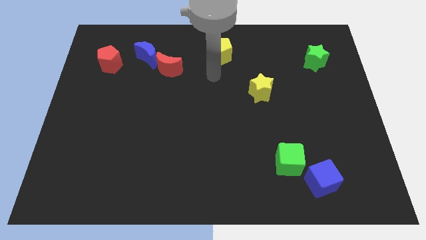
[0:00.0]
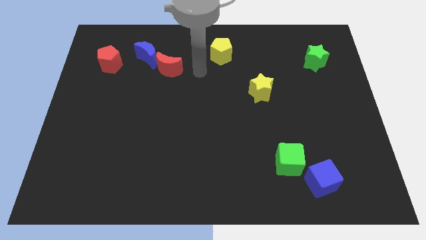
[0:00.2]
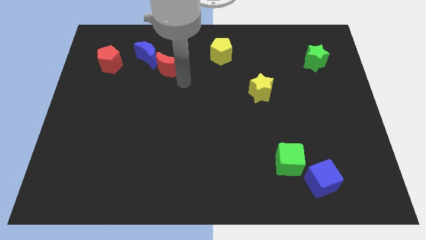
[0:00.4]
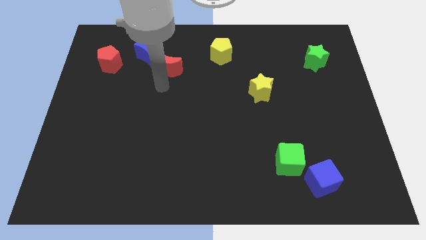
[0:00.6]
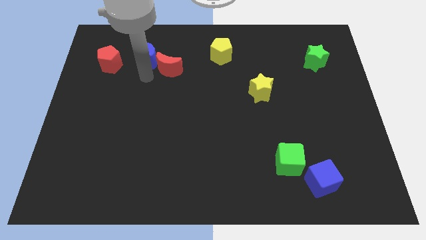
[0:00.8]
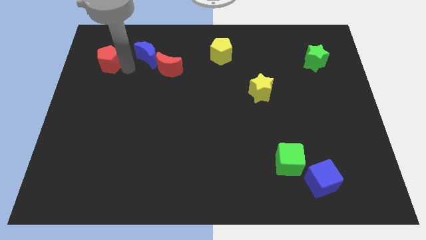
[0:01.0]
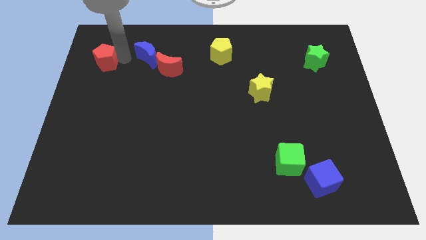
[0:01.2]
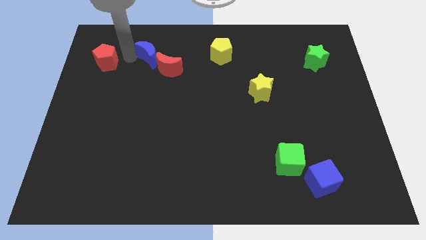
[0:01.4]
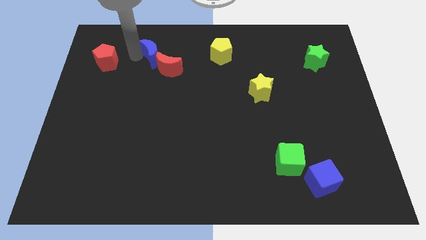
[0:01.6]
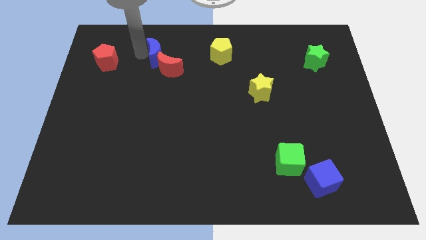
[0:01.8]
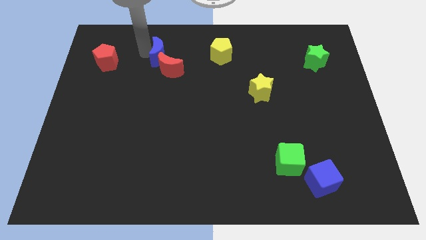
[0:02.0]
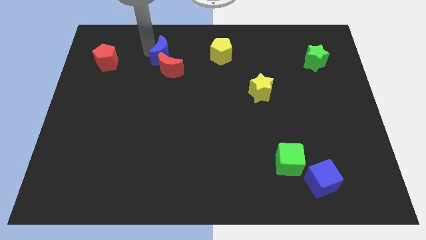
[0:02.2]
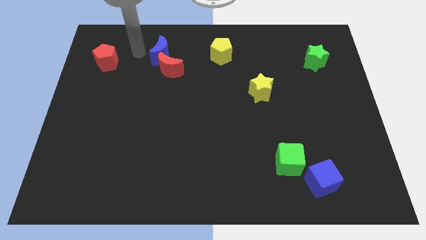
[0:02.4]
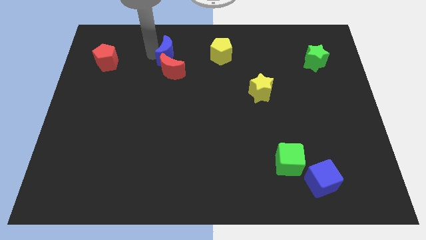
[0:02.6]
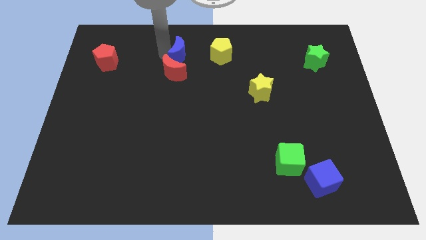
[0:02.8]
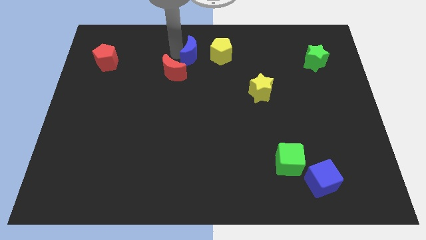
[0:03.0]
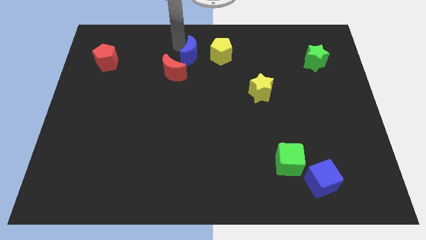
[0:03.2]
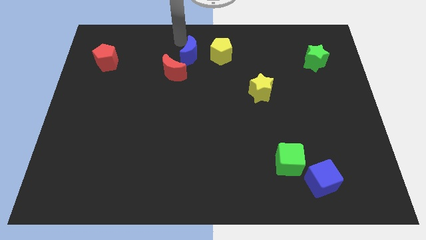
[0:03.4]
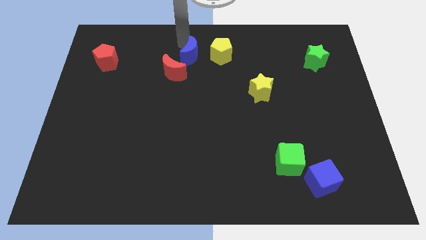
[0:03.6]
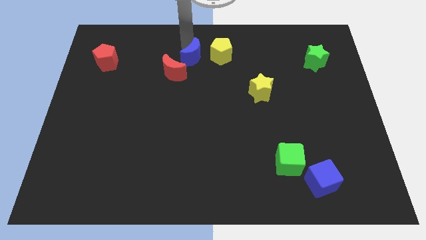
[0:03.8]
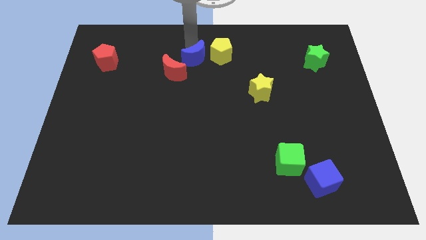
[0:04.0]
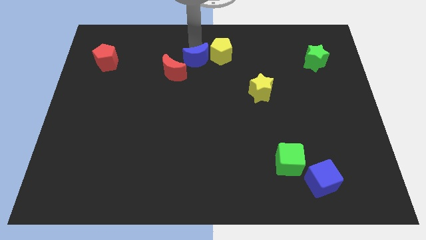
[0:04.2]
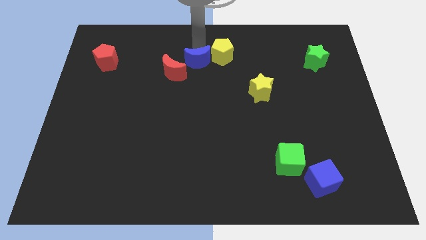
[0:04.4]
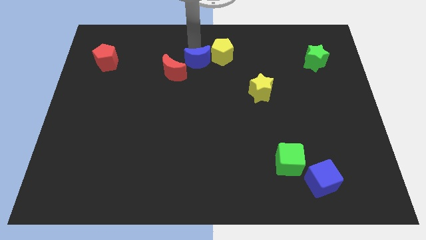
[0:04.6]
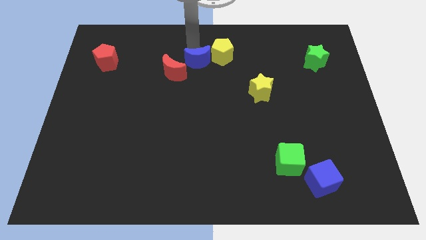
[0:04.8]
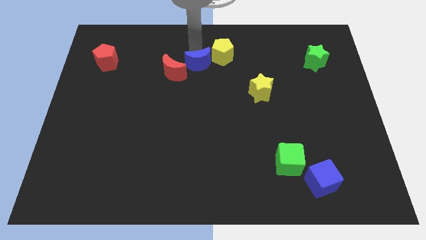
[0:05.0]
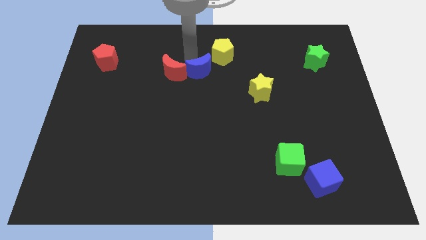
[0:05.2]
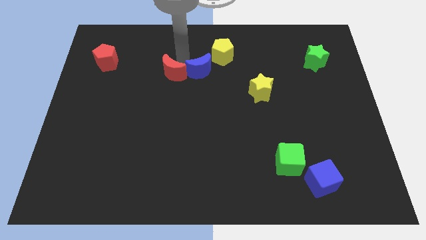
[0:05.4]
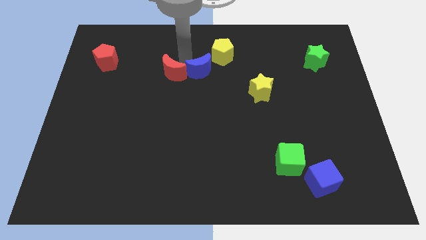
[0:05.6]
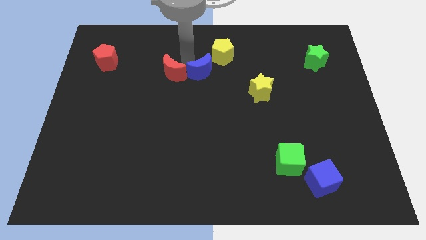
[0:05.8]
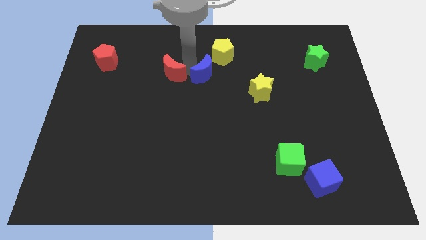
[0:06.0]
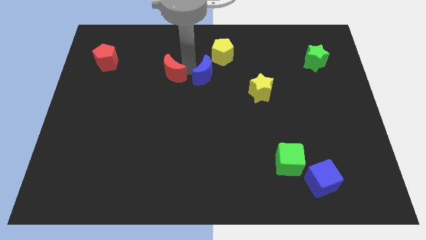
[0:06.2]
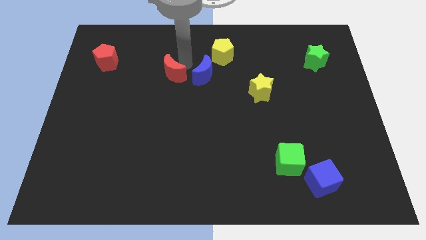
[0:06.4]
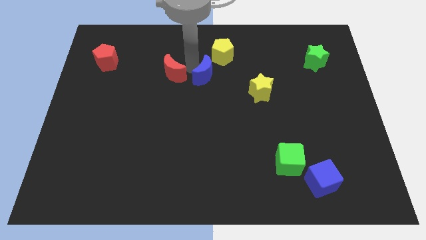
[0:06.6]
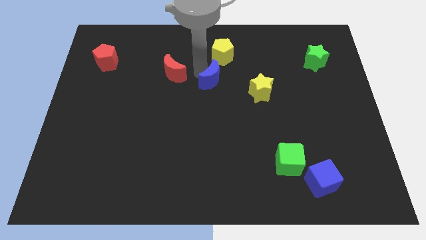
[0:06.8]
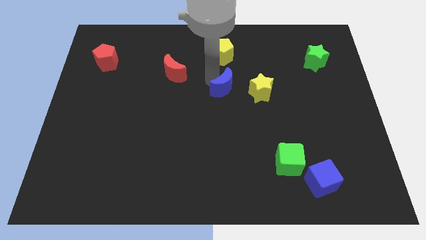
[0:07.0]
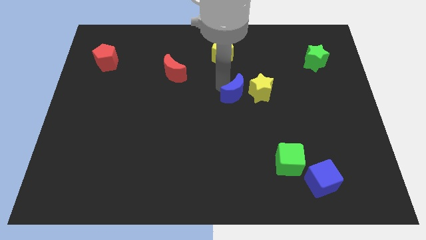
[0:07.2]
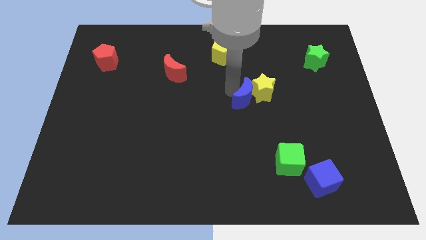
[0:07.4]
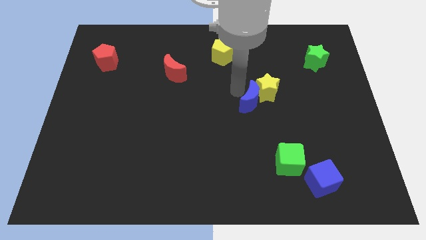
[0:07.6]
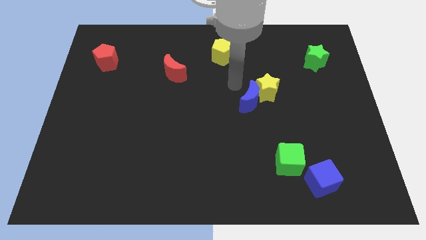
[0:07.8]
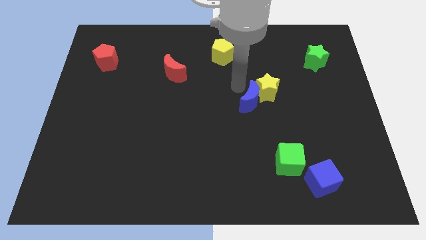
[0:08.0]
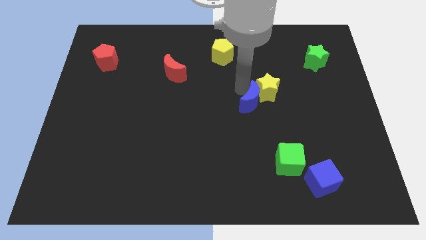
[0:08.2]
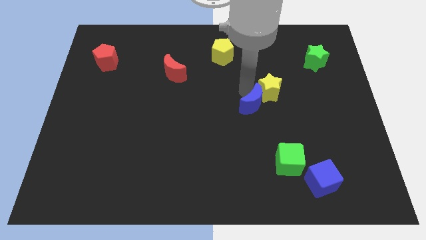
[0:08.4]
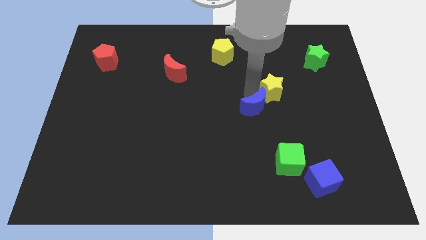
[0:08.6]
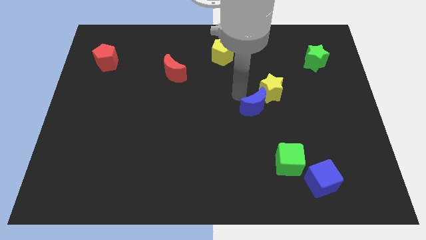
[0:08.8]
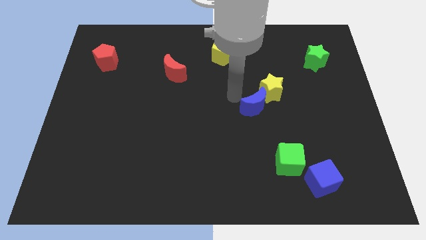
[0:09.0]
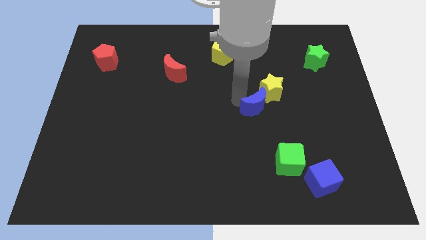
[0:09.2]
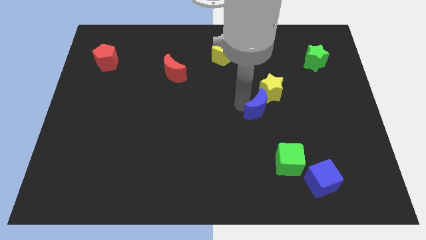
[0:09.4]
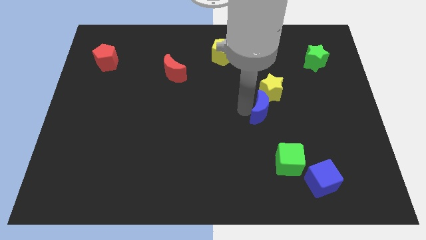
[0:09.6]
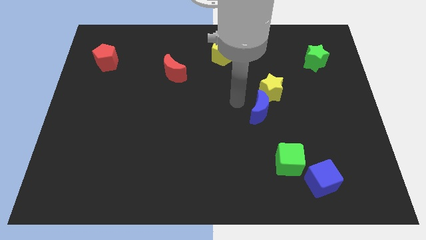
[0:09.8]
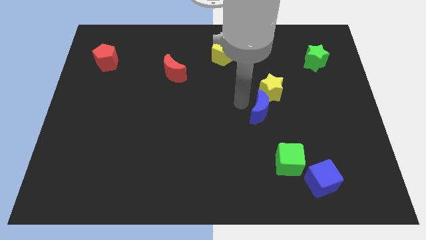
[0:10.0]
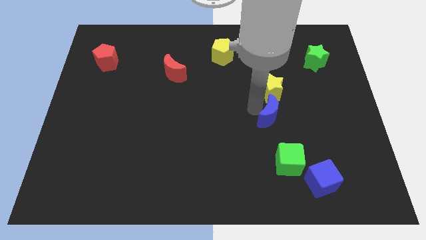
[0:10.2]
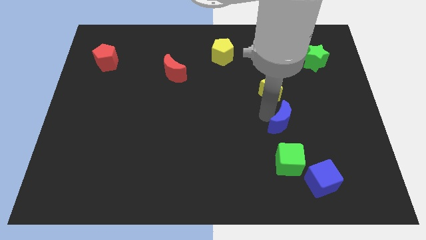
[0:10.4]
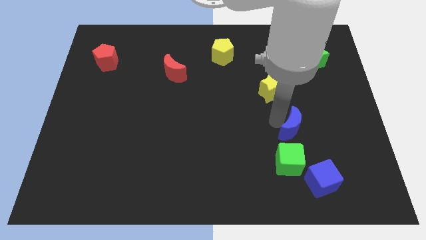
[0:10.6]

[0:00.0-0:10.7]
push the blue moon above the blue cube

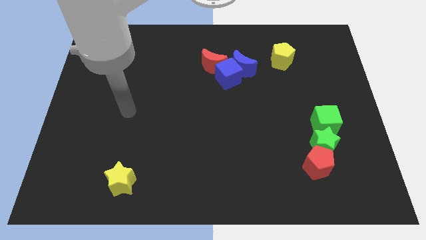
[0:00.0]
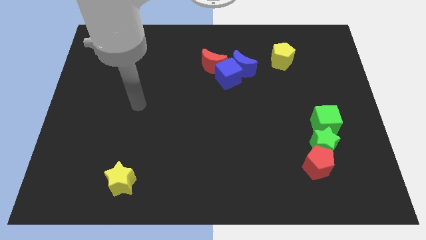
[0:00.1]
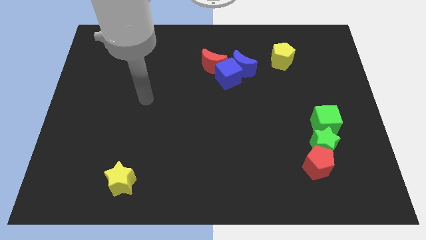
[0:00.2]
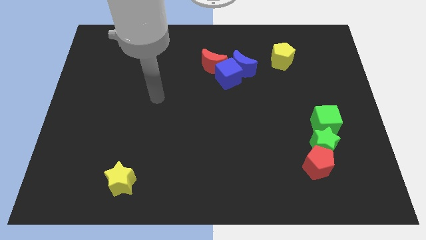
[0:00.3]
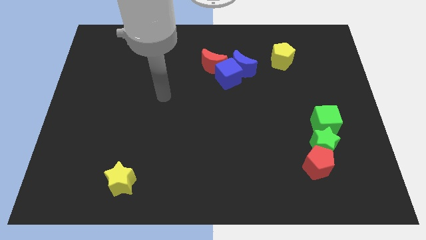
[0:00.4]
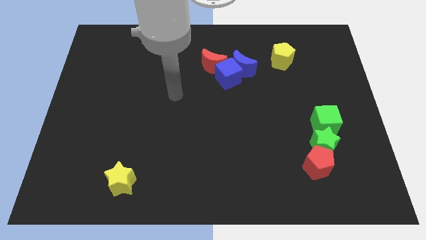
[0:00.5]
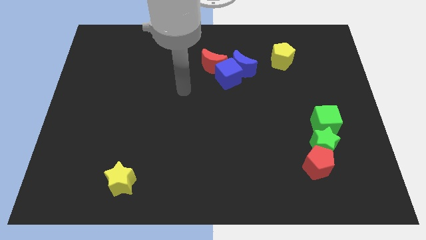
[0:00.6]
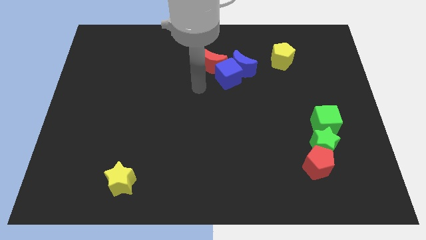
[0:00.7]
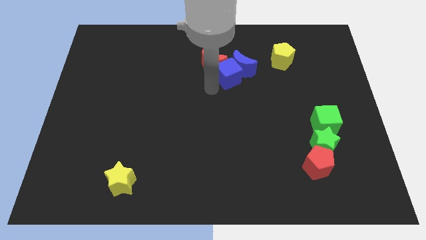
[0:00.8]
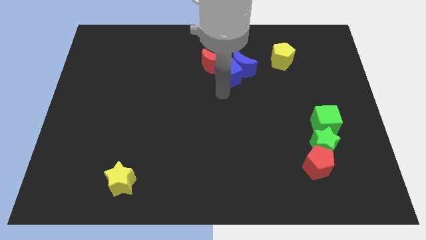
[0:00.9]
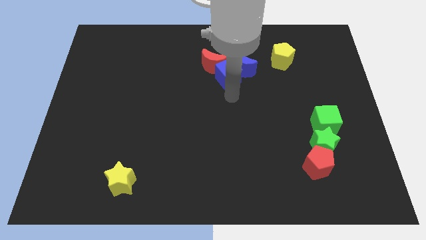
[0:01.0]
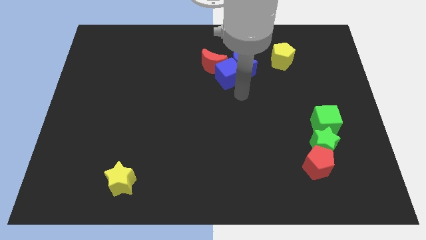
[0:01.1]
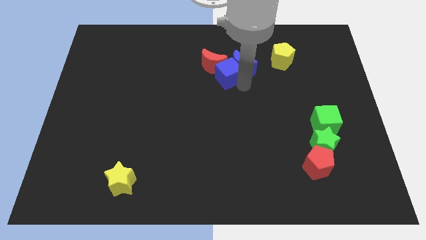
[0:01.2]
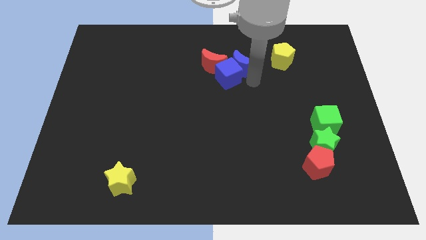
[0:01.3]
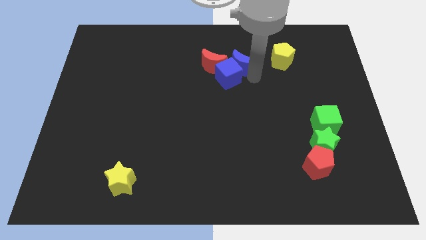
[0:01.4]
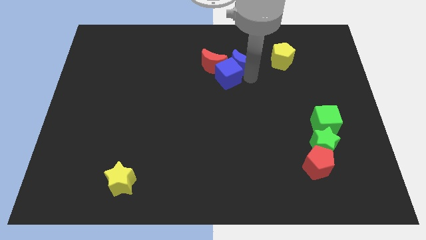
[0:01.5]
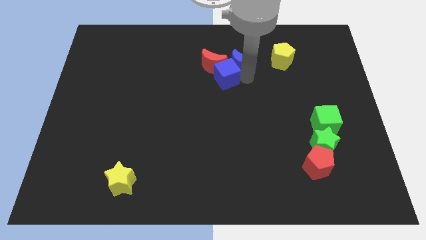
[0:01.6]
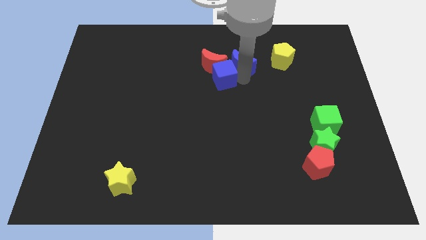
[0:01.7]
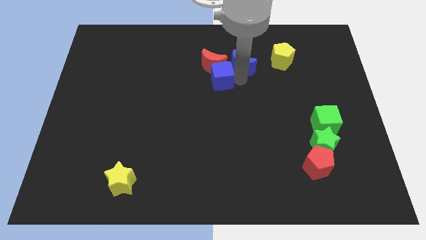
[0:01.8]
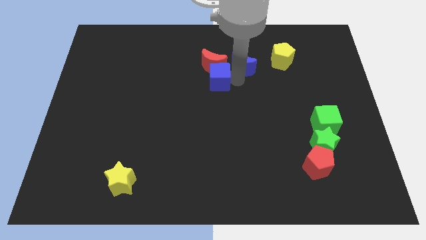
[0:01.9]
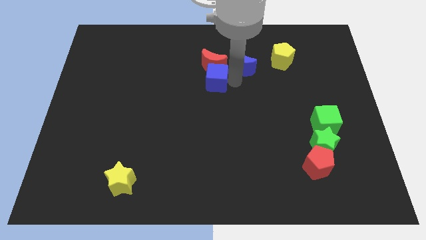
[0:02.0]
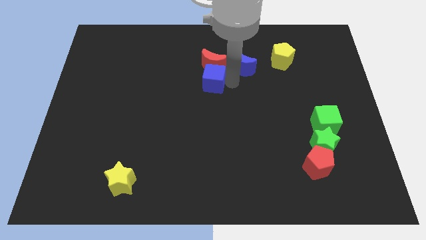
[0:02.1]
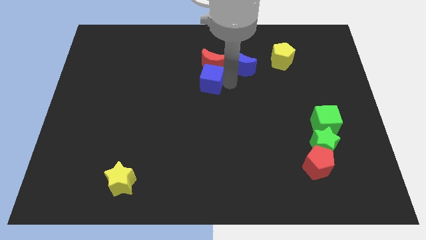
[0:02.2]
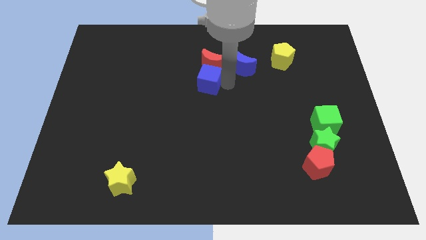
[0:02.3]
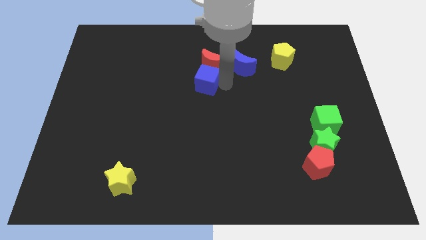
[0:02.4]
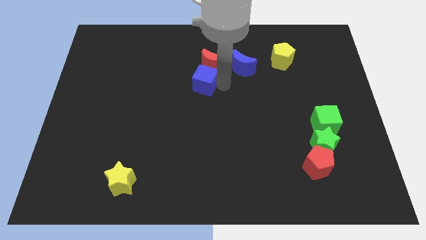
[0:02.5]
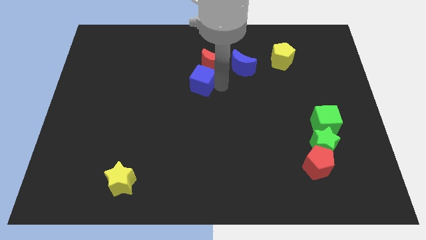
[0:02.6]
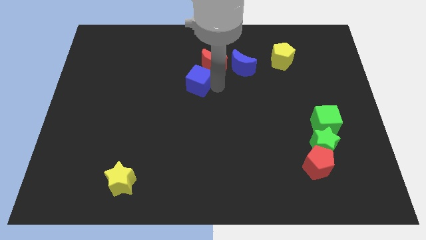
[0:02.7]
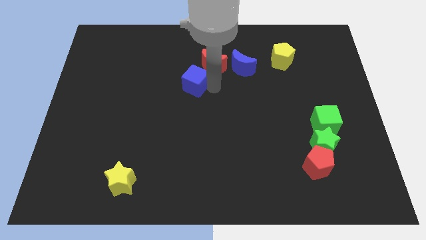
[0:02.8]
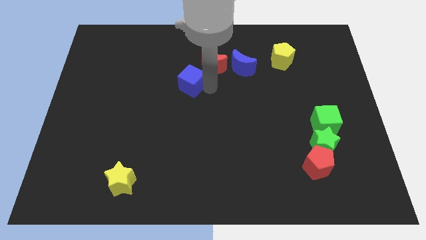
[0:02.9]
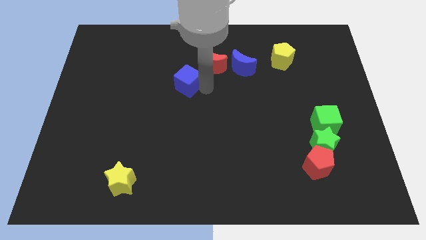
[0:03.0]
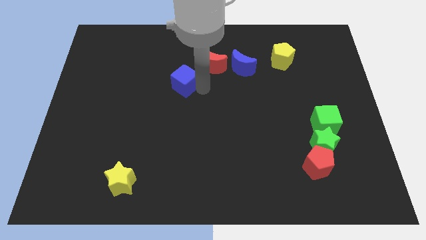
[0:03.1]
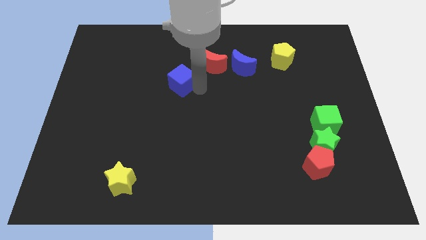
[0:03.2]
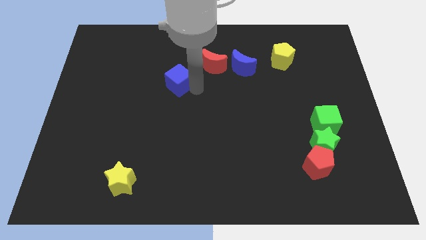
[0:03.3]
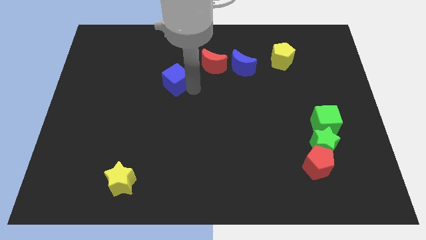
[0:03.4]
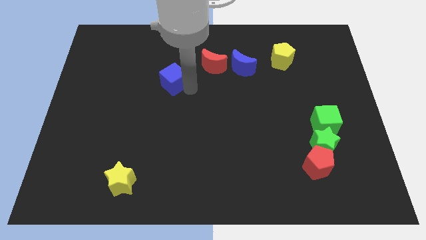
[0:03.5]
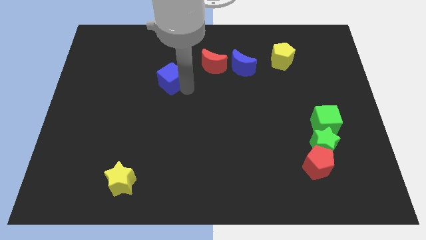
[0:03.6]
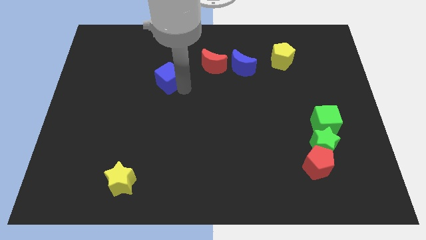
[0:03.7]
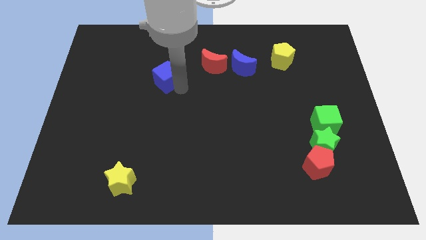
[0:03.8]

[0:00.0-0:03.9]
slide the blue cube to the left of the red moon
